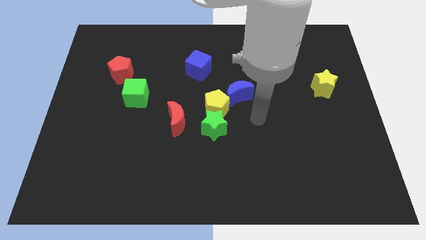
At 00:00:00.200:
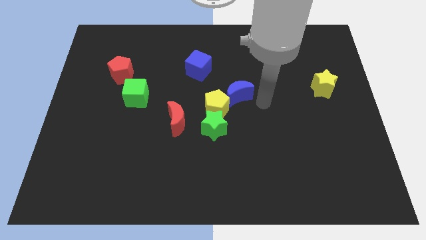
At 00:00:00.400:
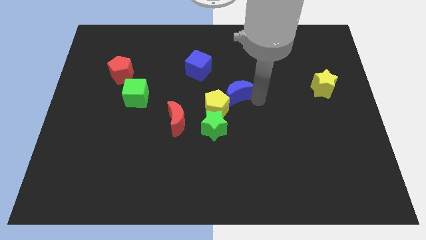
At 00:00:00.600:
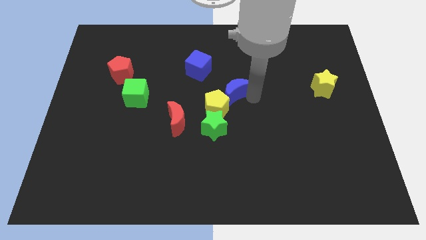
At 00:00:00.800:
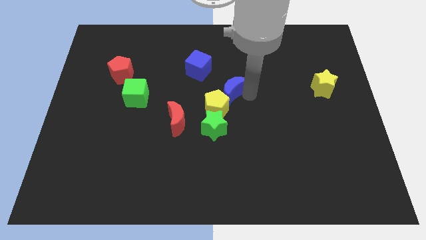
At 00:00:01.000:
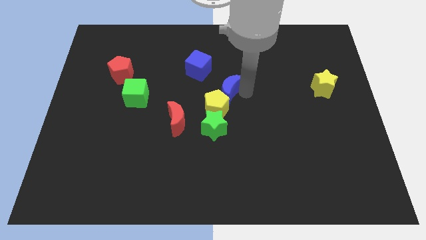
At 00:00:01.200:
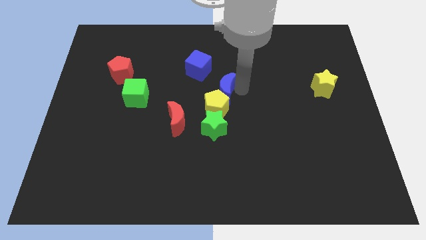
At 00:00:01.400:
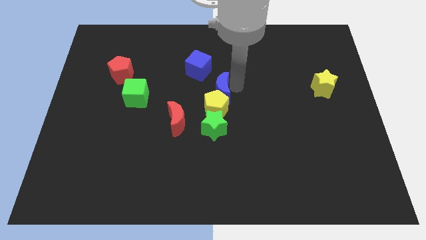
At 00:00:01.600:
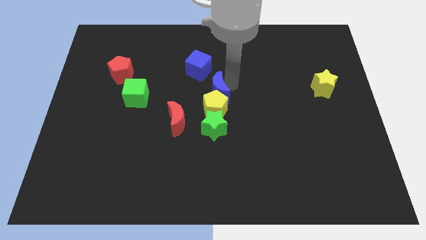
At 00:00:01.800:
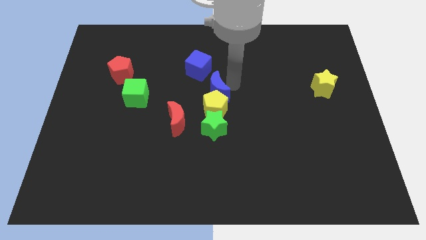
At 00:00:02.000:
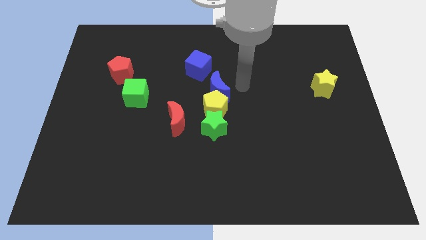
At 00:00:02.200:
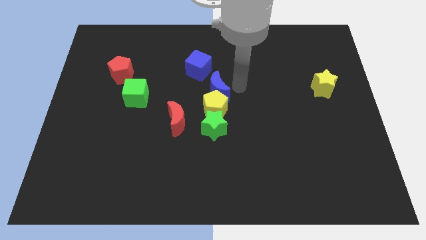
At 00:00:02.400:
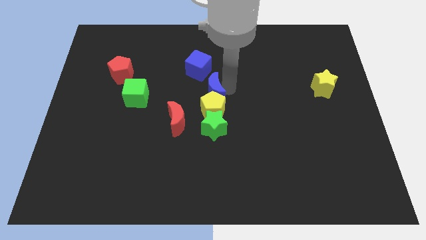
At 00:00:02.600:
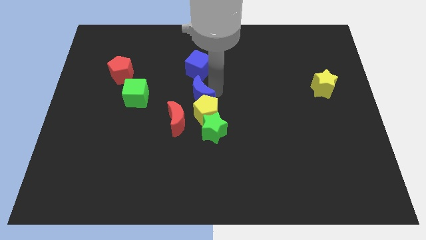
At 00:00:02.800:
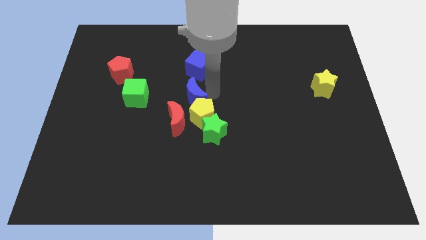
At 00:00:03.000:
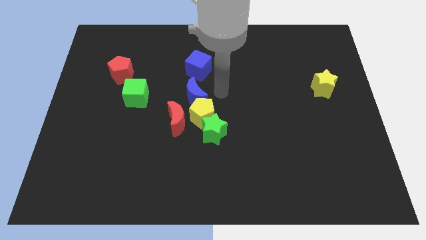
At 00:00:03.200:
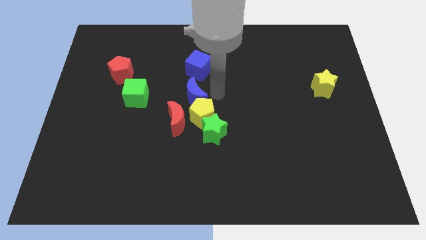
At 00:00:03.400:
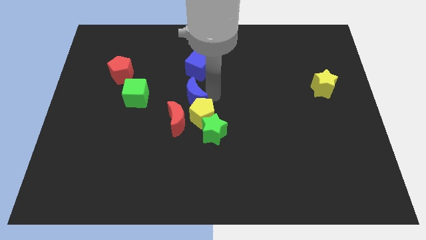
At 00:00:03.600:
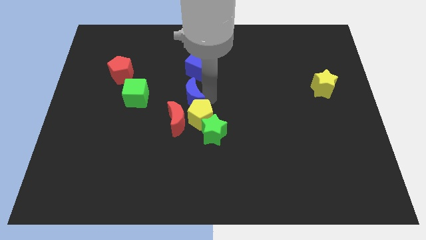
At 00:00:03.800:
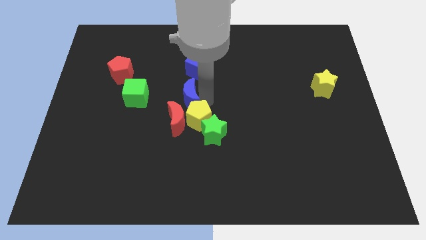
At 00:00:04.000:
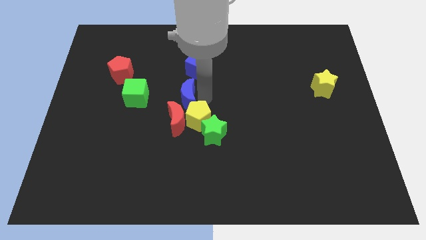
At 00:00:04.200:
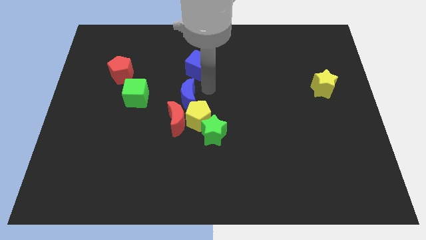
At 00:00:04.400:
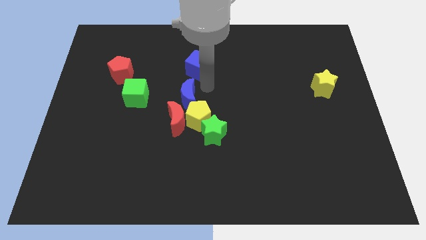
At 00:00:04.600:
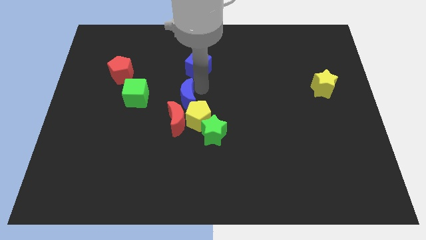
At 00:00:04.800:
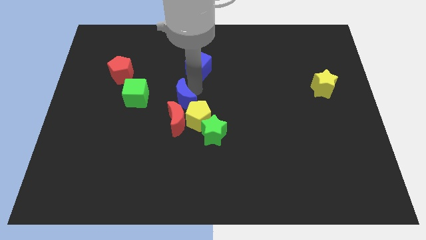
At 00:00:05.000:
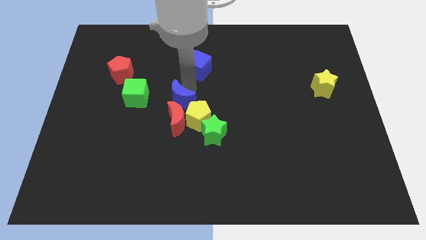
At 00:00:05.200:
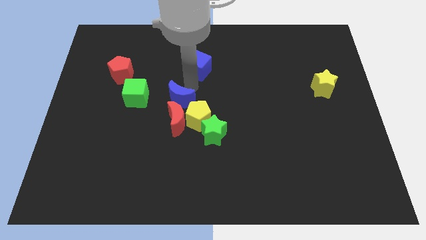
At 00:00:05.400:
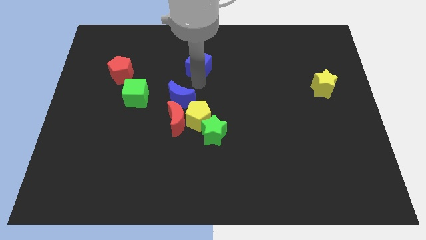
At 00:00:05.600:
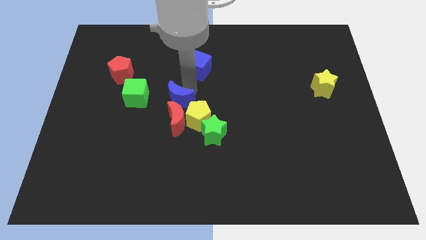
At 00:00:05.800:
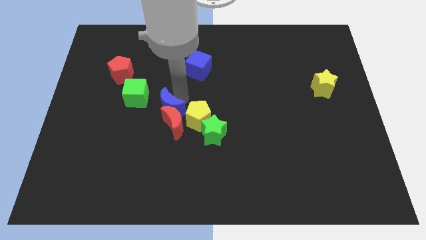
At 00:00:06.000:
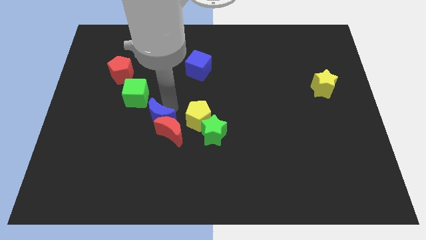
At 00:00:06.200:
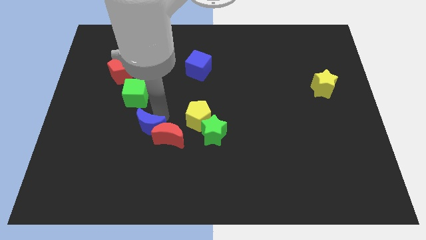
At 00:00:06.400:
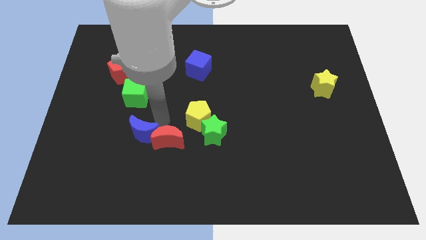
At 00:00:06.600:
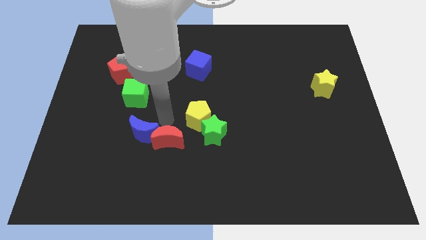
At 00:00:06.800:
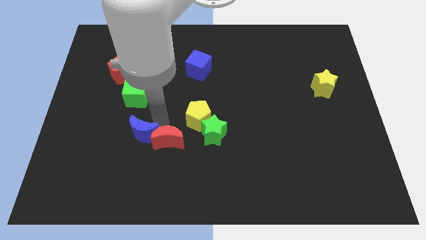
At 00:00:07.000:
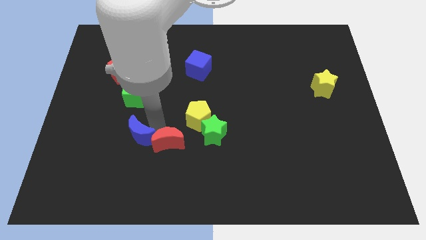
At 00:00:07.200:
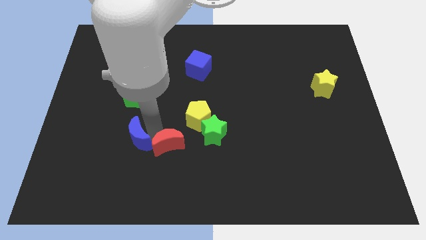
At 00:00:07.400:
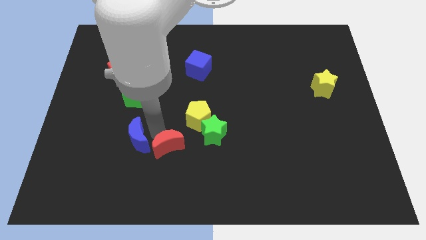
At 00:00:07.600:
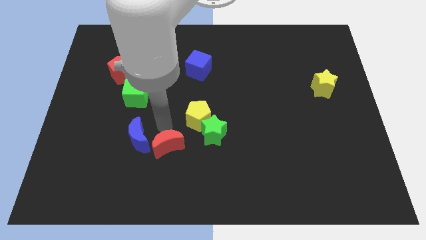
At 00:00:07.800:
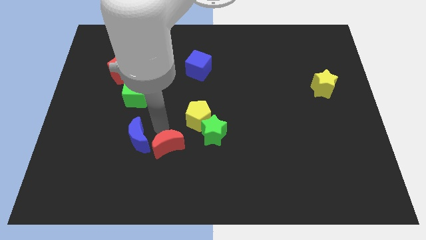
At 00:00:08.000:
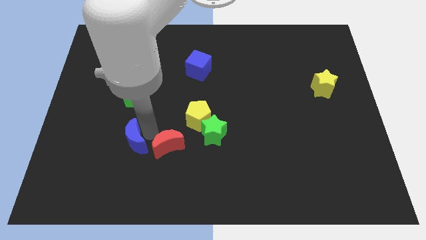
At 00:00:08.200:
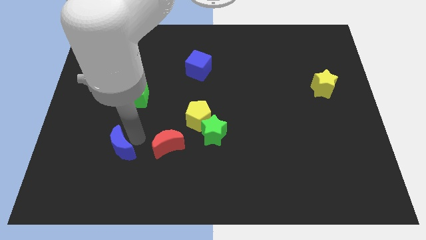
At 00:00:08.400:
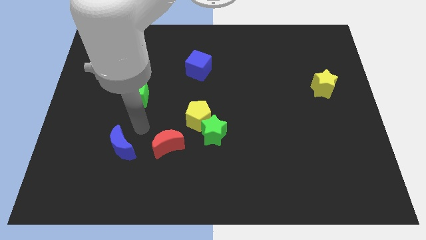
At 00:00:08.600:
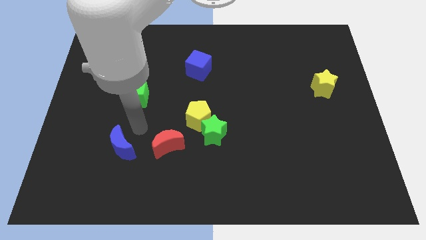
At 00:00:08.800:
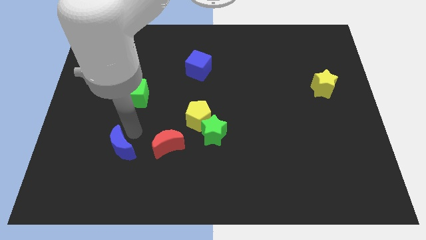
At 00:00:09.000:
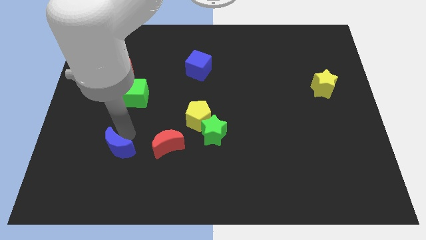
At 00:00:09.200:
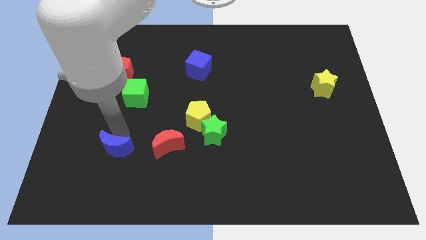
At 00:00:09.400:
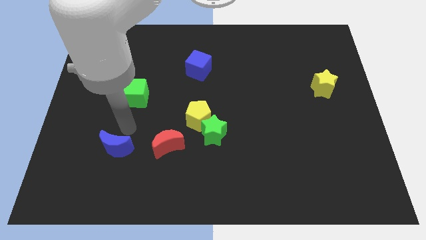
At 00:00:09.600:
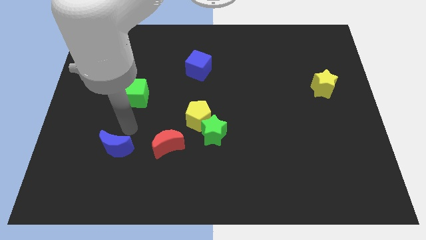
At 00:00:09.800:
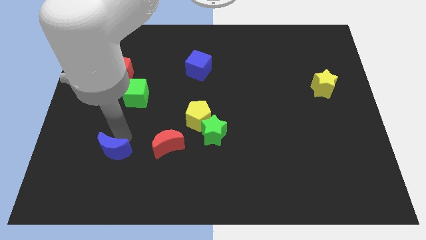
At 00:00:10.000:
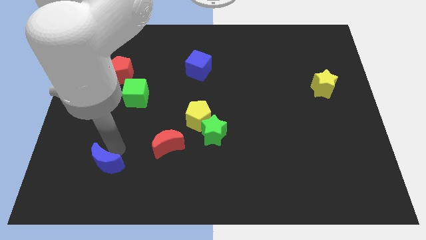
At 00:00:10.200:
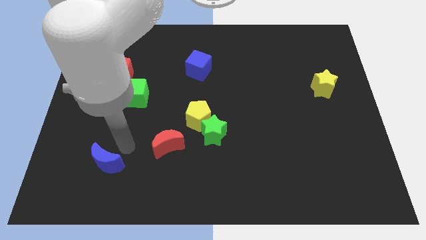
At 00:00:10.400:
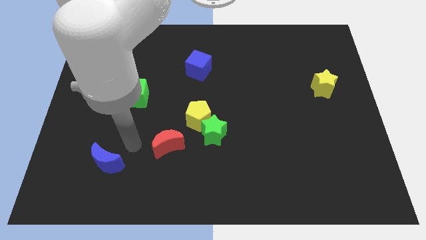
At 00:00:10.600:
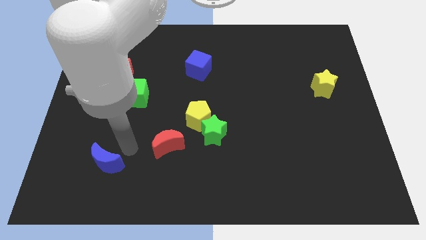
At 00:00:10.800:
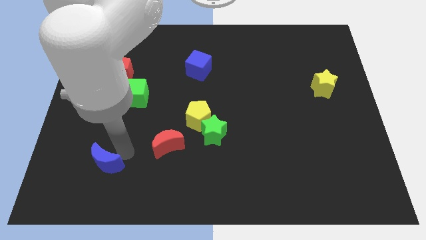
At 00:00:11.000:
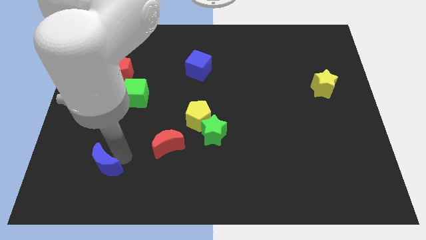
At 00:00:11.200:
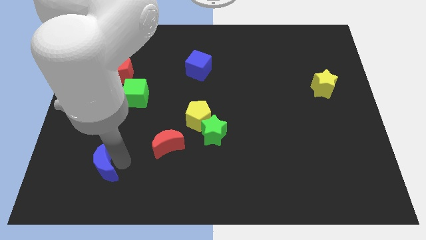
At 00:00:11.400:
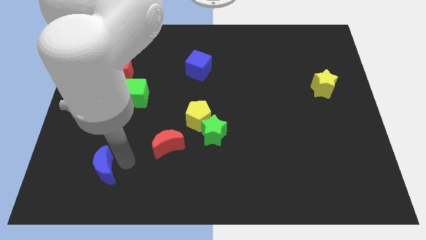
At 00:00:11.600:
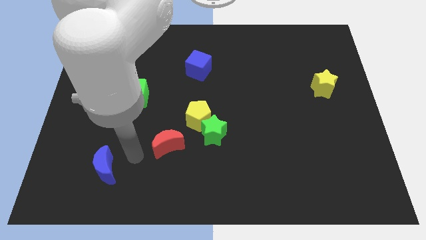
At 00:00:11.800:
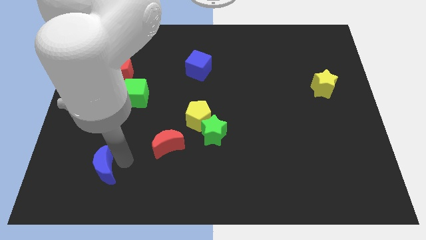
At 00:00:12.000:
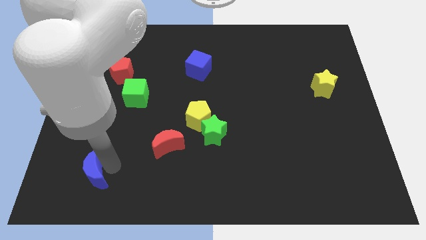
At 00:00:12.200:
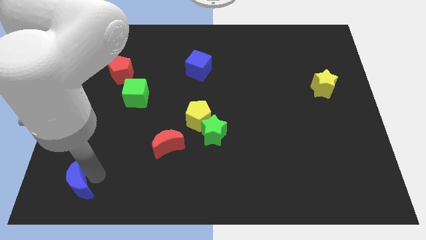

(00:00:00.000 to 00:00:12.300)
slide the blue moon to the bottom left corner
